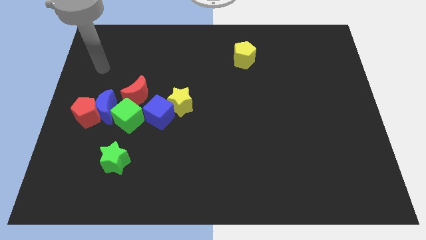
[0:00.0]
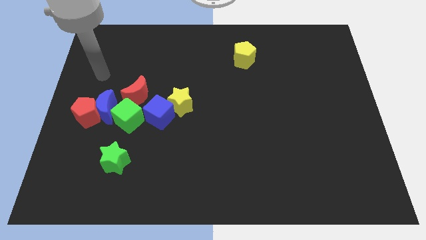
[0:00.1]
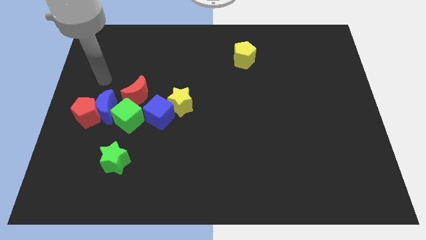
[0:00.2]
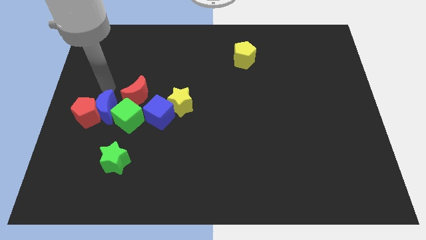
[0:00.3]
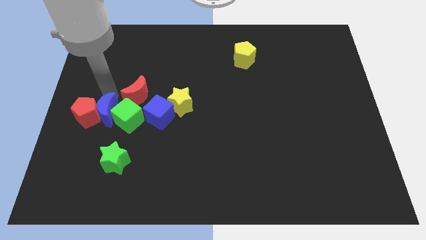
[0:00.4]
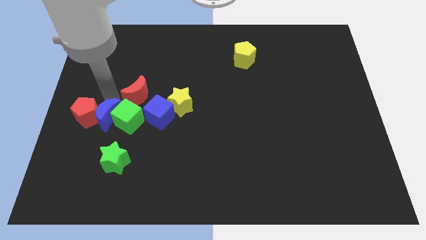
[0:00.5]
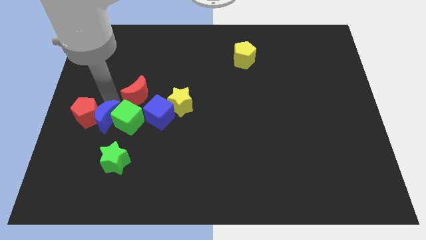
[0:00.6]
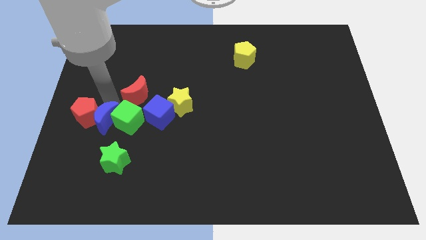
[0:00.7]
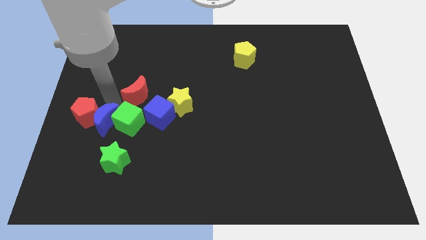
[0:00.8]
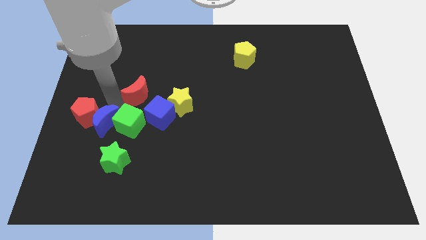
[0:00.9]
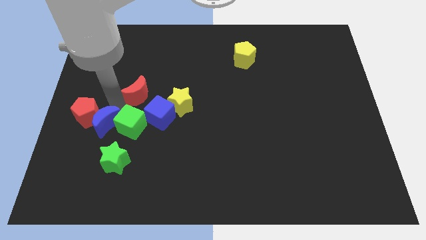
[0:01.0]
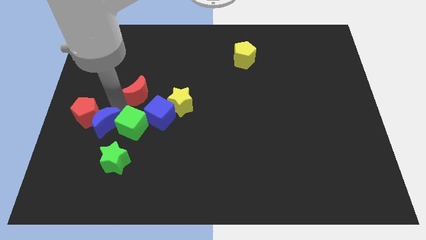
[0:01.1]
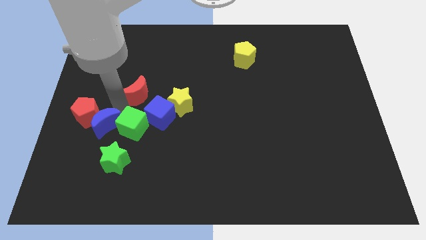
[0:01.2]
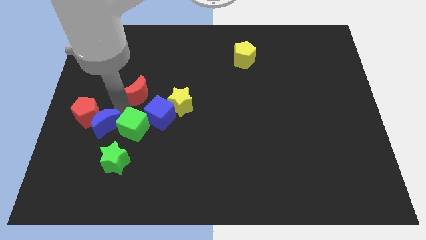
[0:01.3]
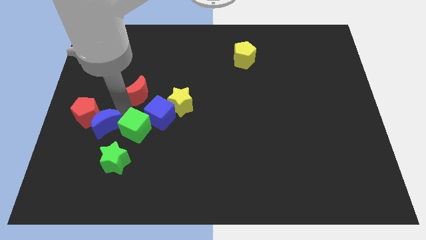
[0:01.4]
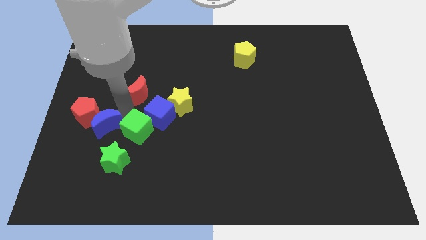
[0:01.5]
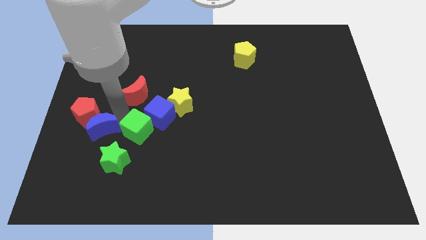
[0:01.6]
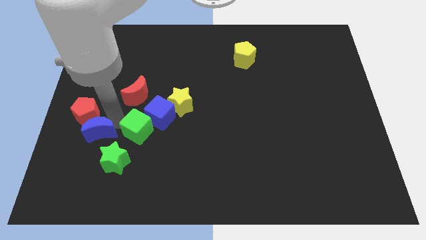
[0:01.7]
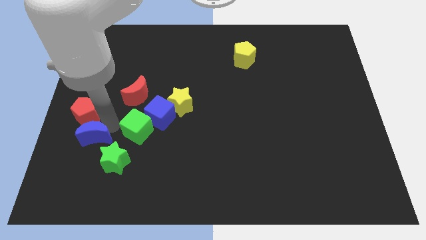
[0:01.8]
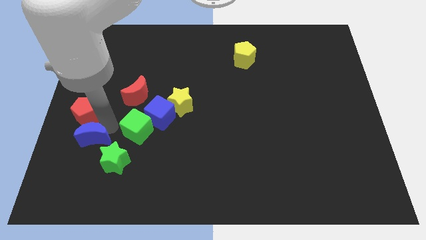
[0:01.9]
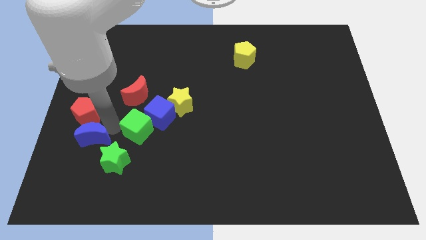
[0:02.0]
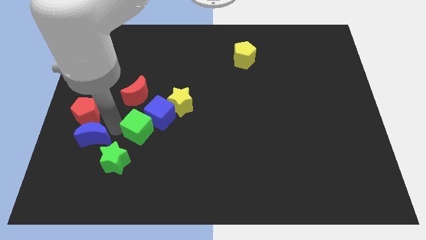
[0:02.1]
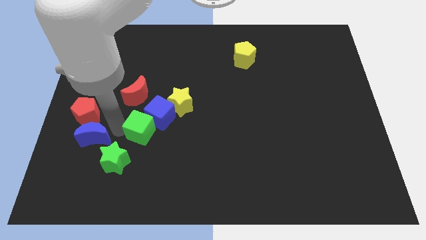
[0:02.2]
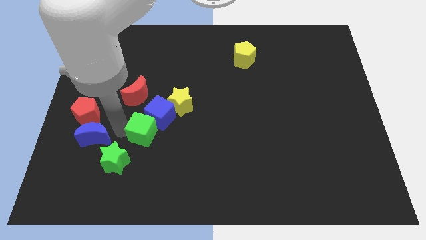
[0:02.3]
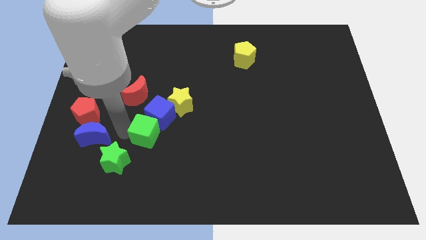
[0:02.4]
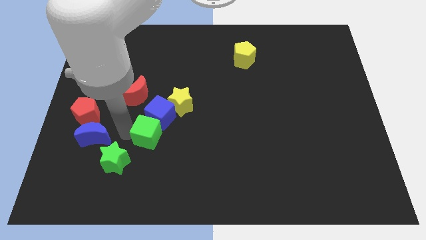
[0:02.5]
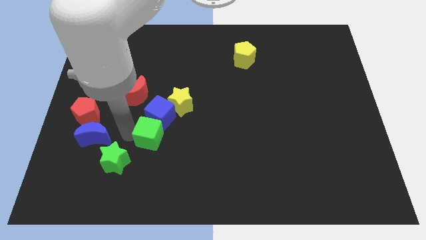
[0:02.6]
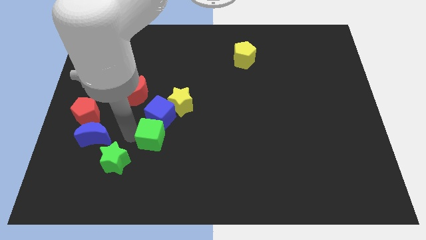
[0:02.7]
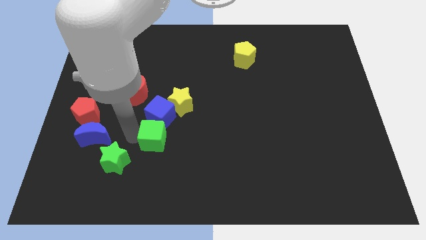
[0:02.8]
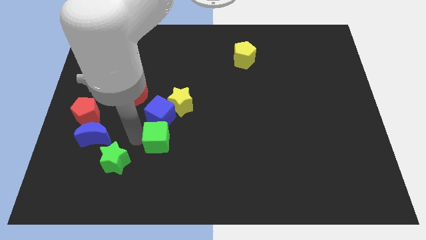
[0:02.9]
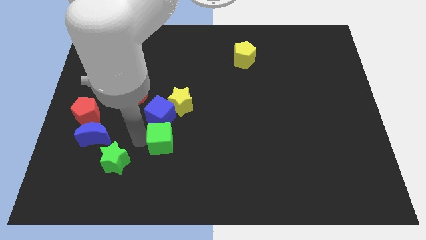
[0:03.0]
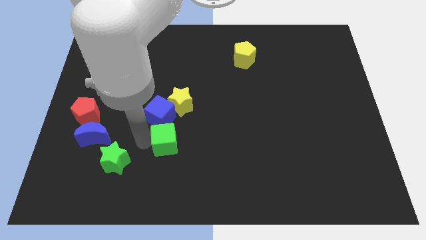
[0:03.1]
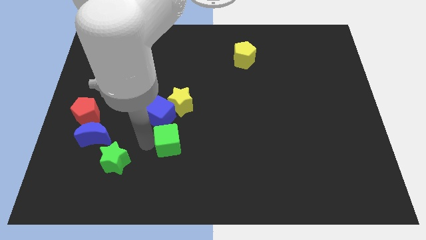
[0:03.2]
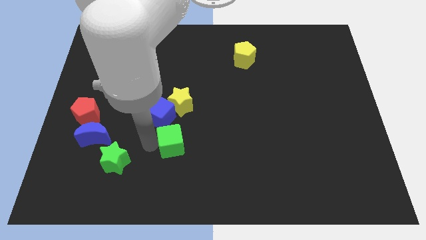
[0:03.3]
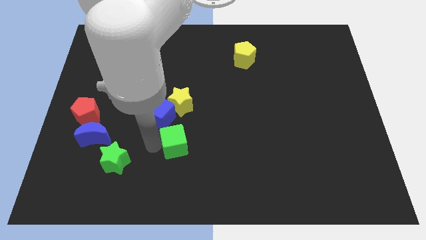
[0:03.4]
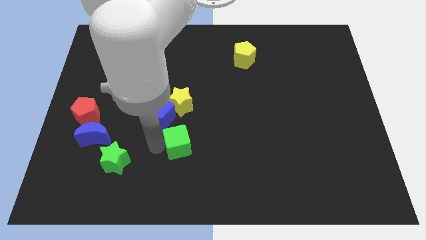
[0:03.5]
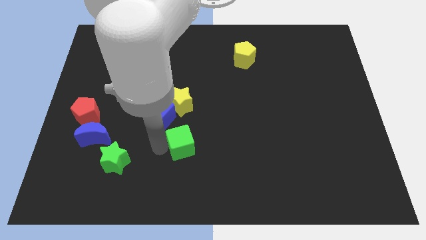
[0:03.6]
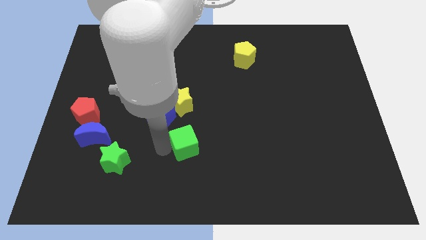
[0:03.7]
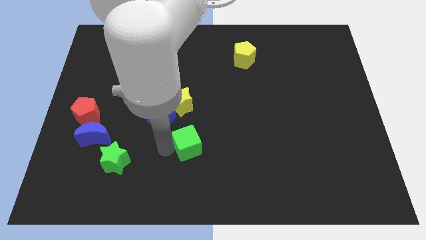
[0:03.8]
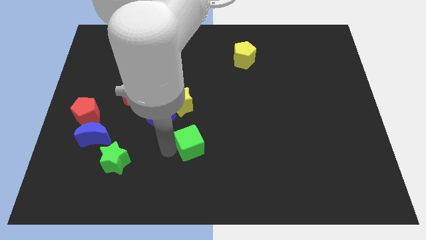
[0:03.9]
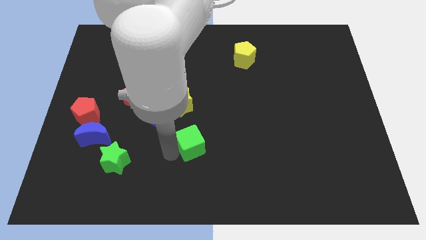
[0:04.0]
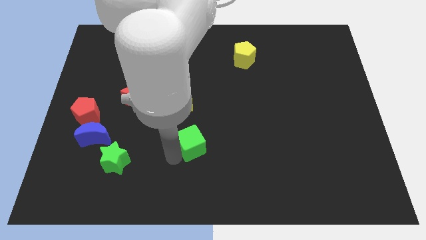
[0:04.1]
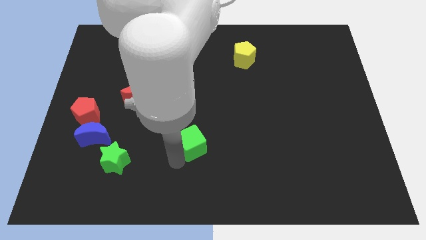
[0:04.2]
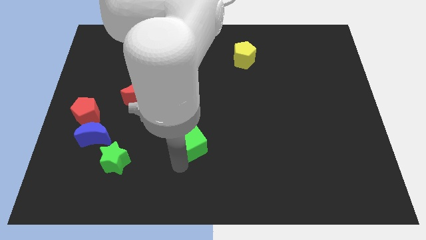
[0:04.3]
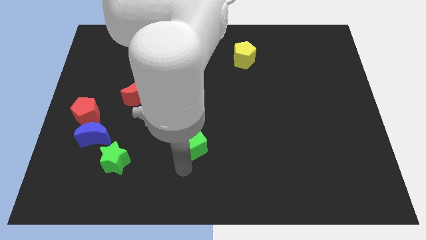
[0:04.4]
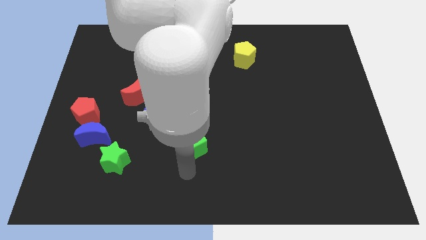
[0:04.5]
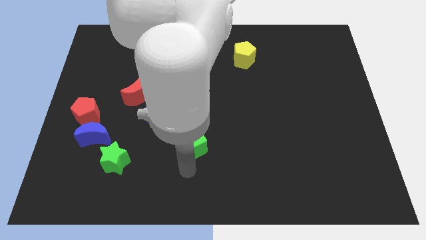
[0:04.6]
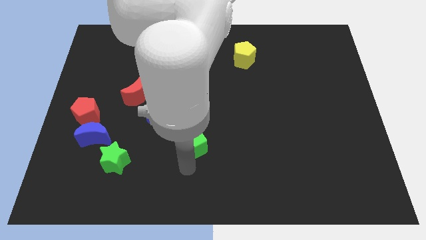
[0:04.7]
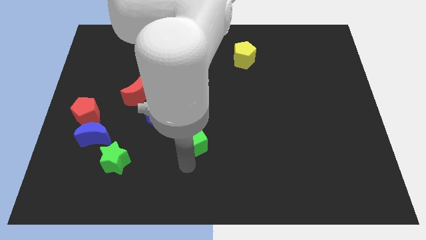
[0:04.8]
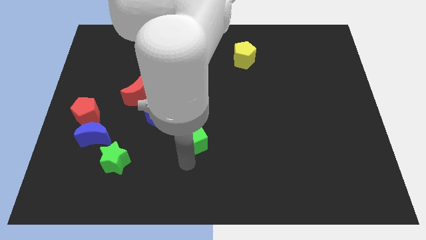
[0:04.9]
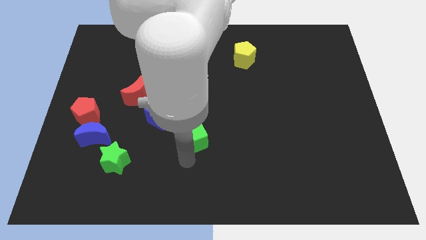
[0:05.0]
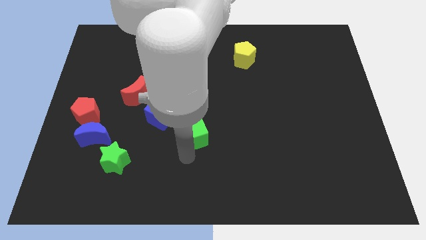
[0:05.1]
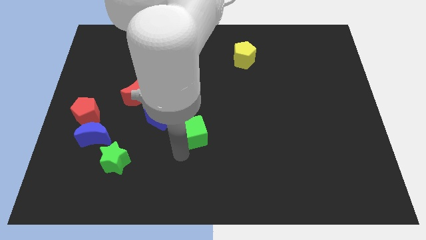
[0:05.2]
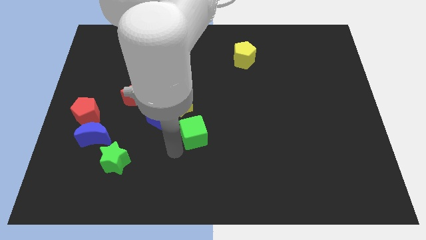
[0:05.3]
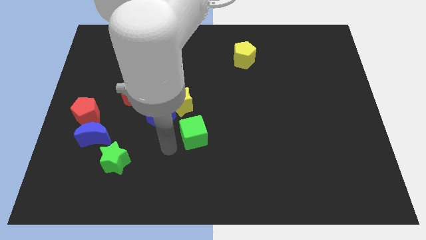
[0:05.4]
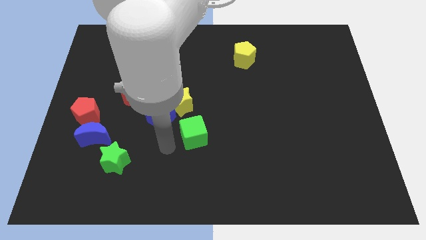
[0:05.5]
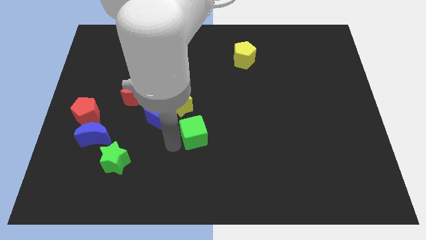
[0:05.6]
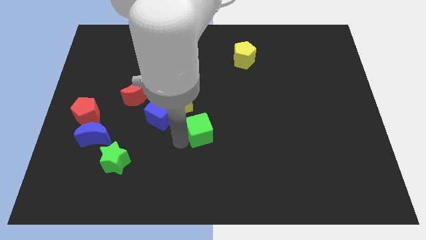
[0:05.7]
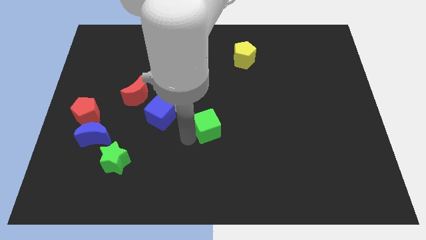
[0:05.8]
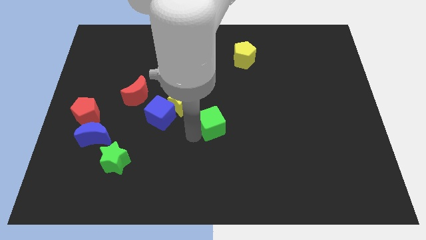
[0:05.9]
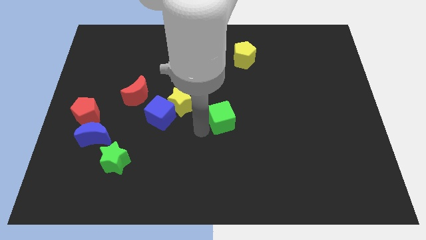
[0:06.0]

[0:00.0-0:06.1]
push the green cube to the right

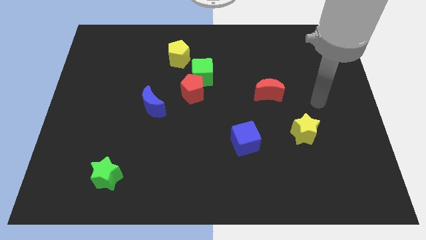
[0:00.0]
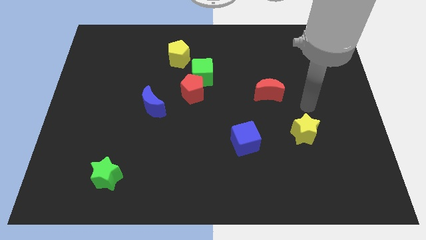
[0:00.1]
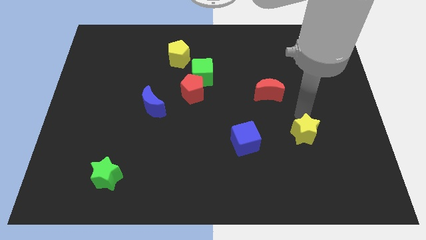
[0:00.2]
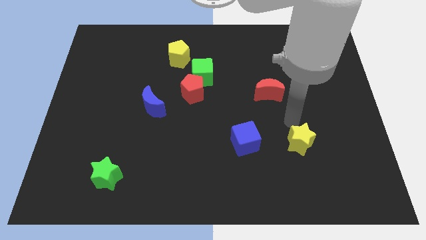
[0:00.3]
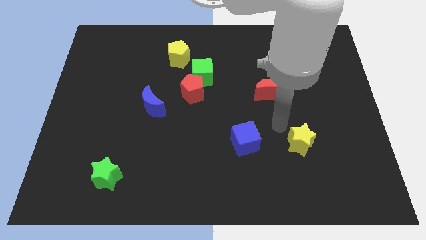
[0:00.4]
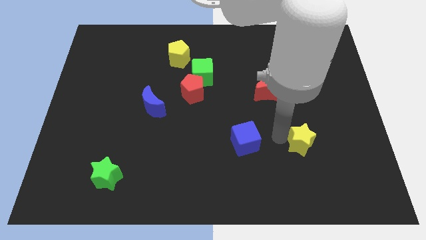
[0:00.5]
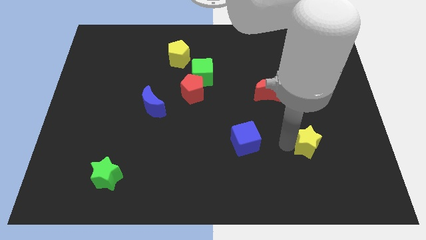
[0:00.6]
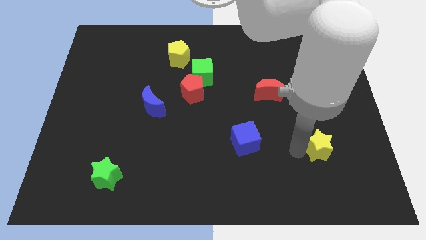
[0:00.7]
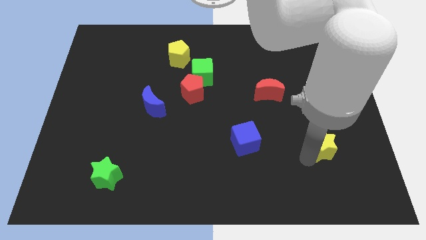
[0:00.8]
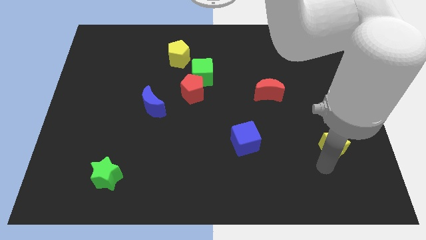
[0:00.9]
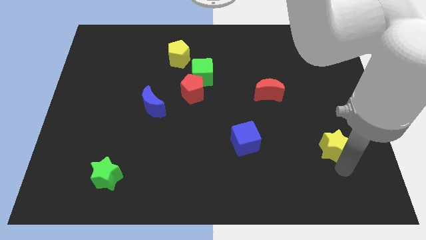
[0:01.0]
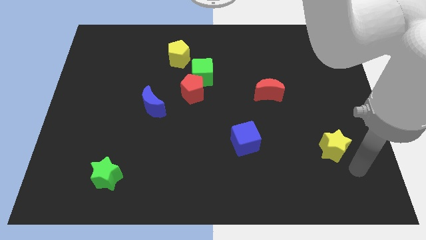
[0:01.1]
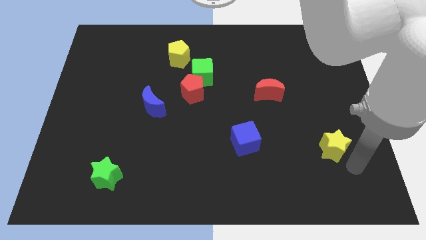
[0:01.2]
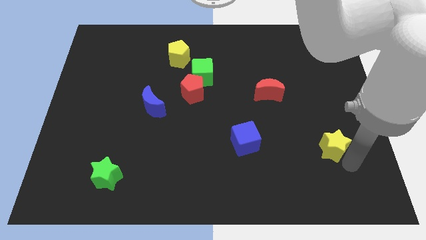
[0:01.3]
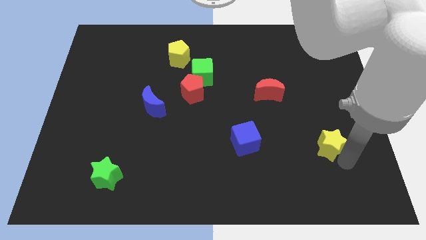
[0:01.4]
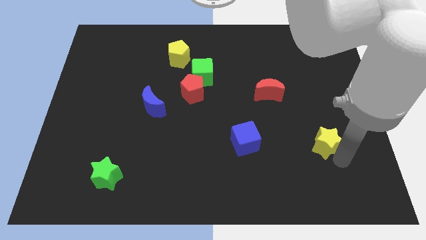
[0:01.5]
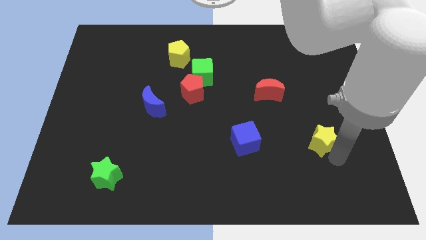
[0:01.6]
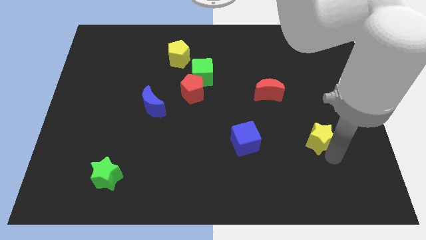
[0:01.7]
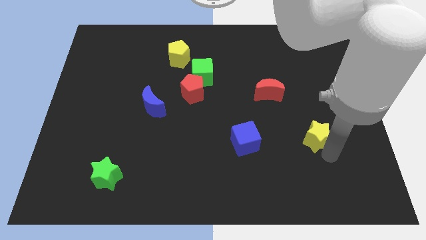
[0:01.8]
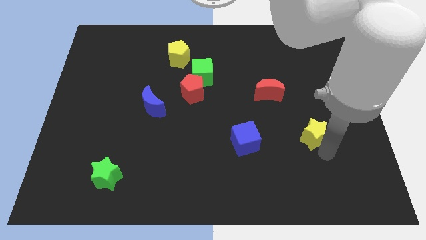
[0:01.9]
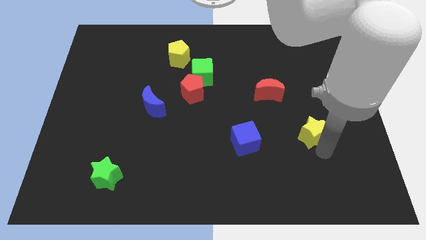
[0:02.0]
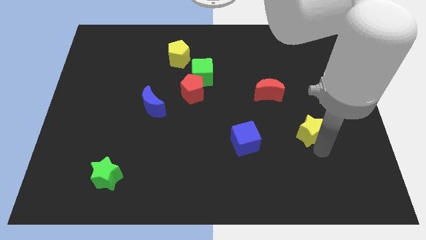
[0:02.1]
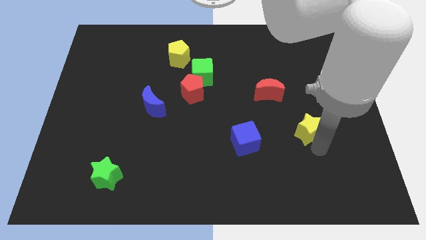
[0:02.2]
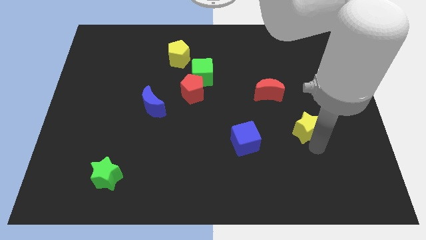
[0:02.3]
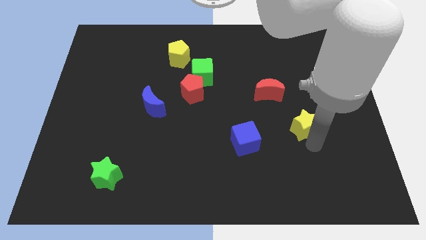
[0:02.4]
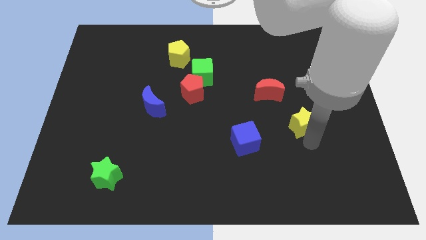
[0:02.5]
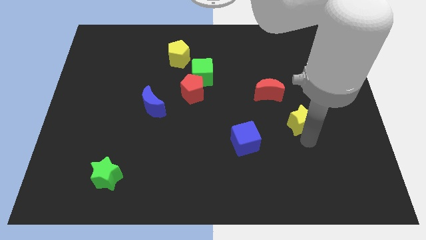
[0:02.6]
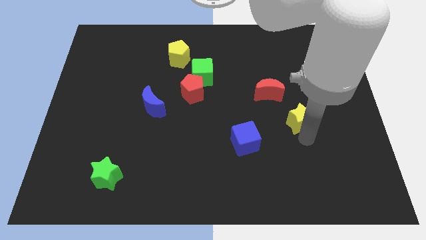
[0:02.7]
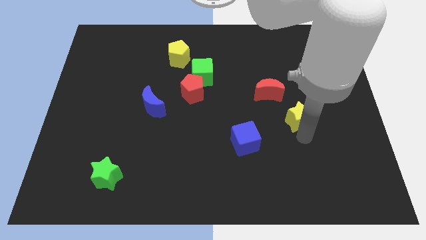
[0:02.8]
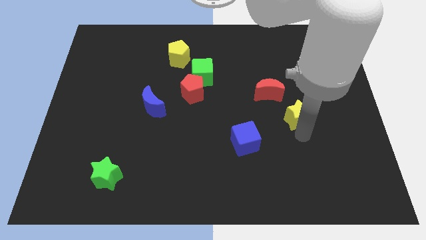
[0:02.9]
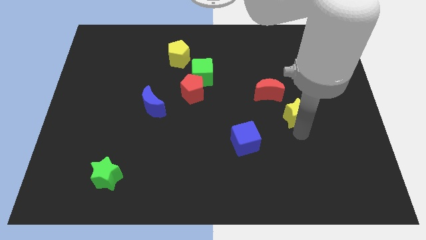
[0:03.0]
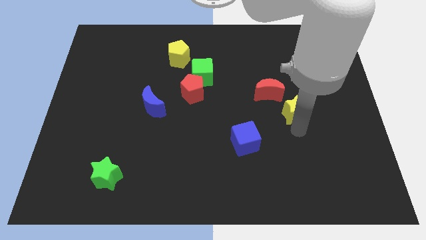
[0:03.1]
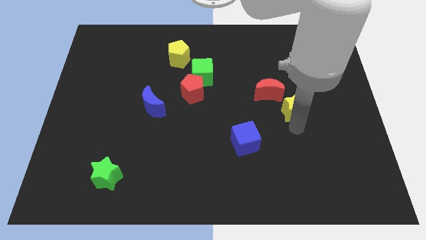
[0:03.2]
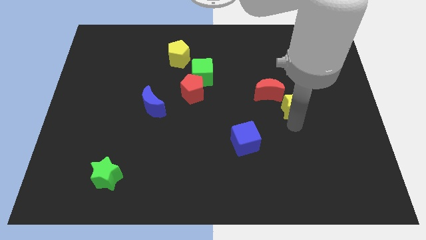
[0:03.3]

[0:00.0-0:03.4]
slightly slide the yellow star up
